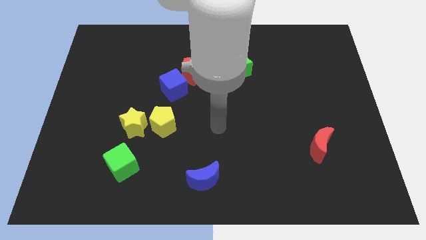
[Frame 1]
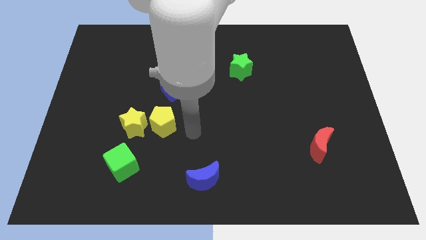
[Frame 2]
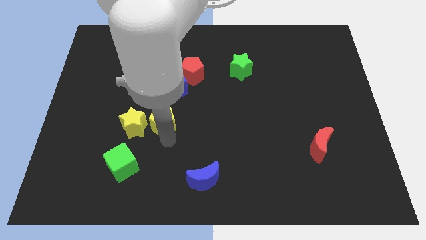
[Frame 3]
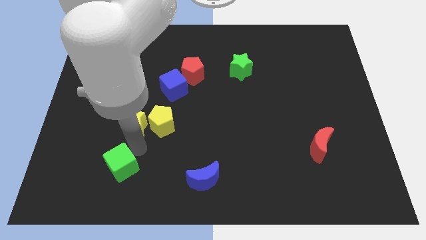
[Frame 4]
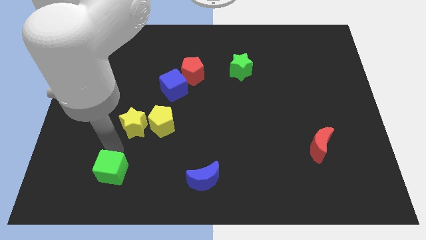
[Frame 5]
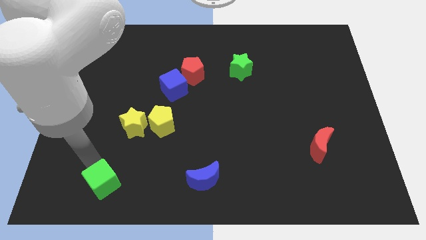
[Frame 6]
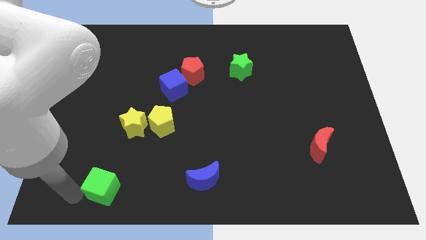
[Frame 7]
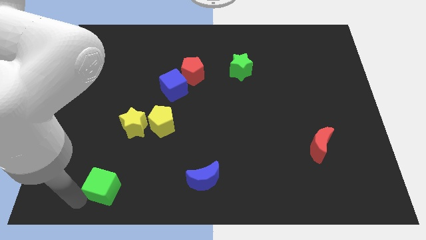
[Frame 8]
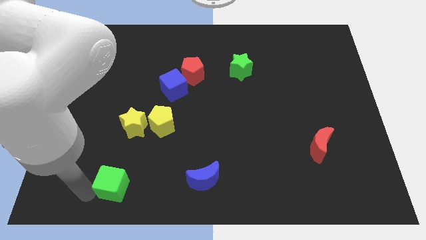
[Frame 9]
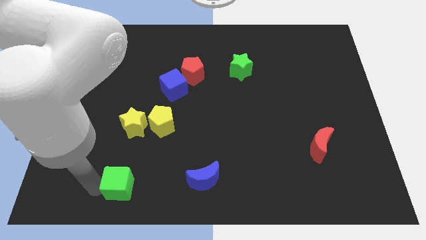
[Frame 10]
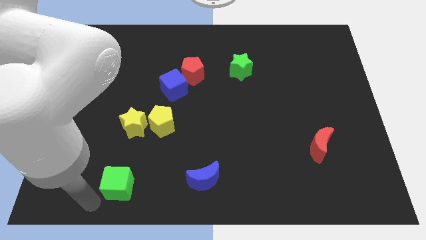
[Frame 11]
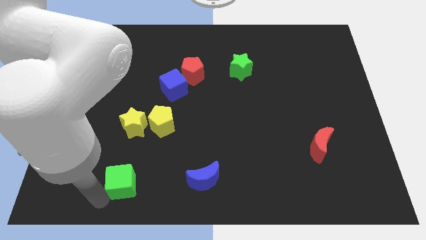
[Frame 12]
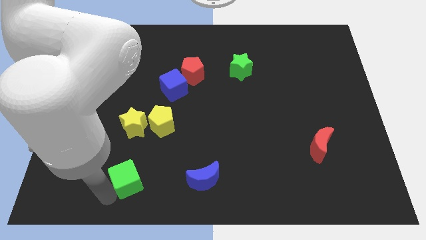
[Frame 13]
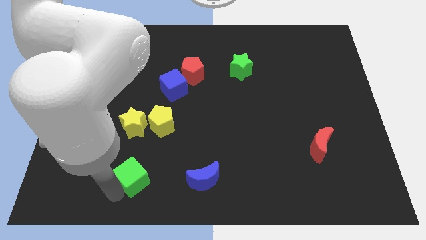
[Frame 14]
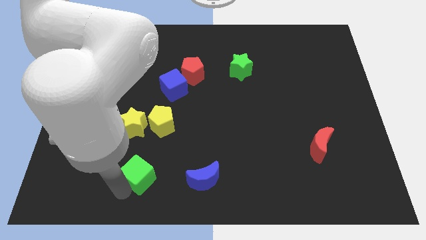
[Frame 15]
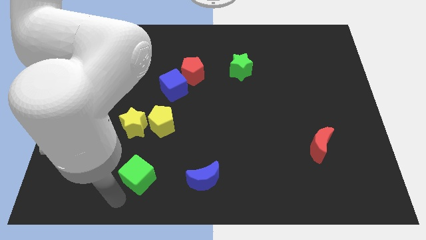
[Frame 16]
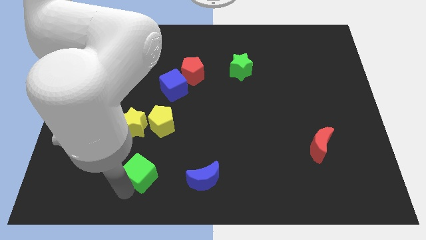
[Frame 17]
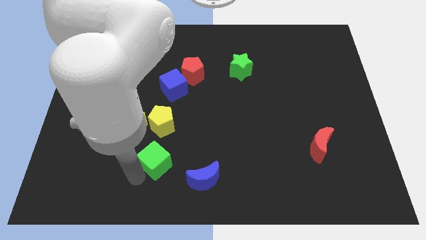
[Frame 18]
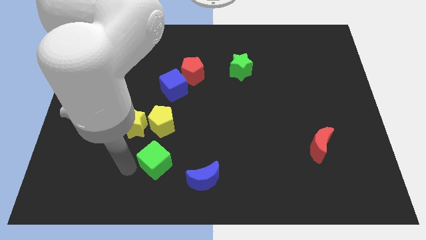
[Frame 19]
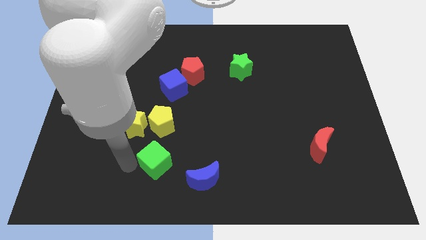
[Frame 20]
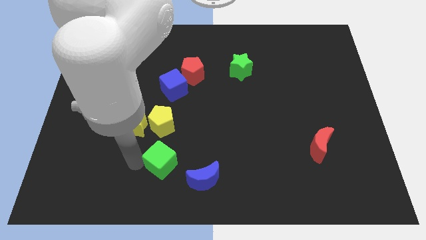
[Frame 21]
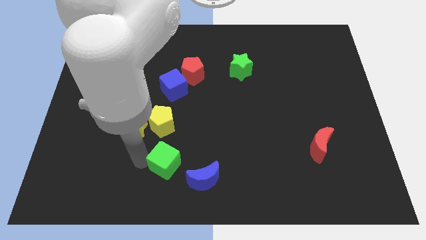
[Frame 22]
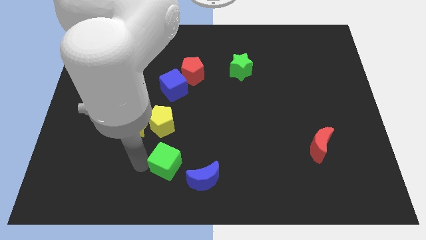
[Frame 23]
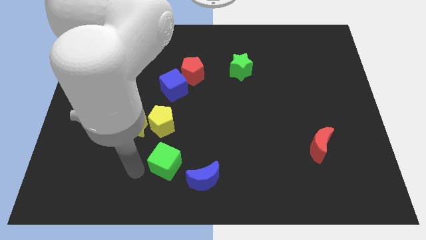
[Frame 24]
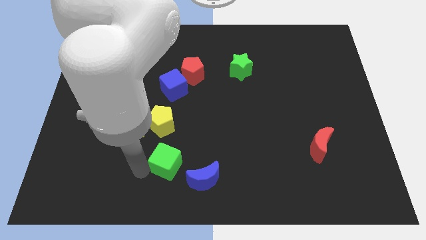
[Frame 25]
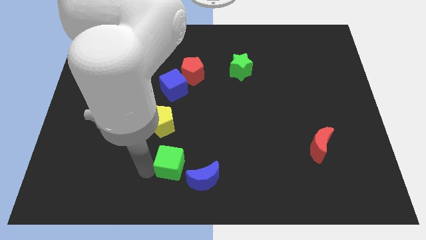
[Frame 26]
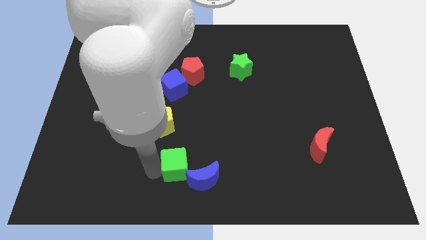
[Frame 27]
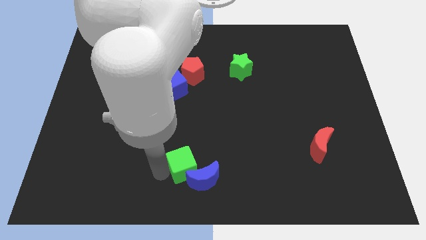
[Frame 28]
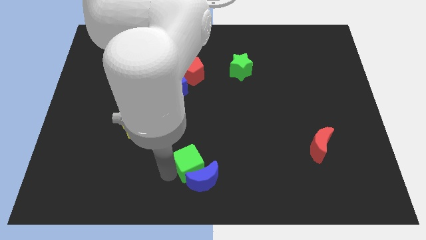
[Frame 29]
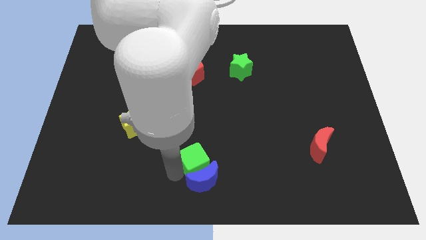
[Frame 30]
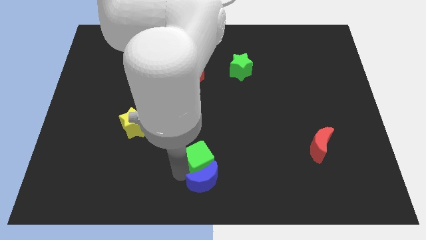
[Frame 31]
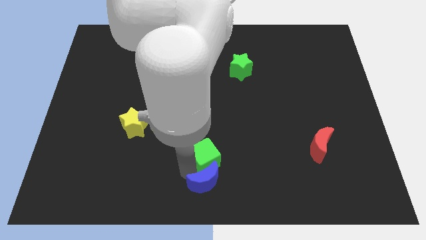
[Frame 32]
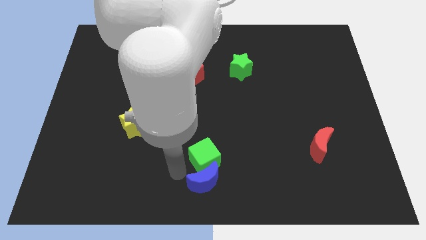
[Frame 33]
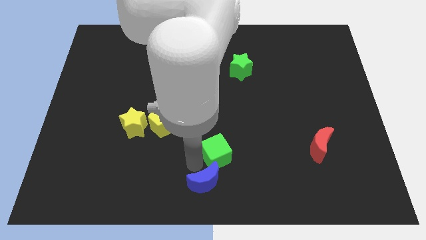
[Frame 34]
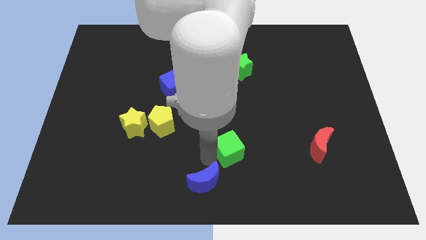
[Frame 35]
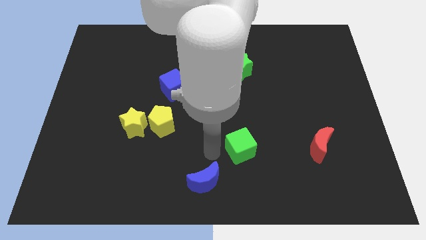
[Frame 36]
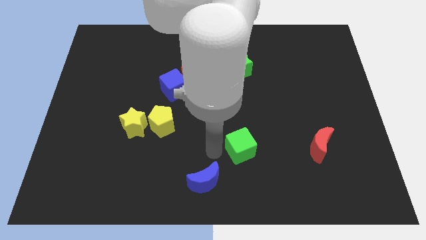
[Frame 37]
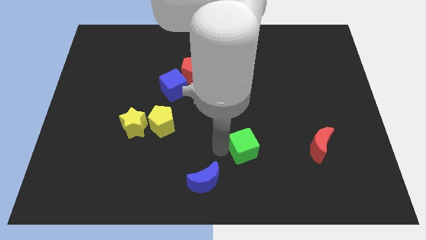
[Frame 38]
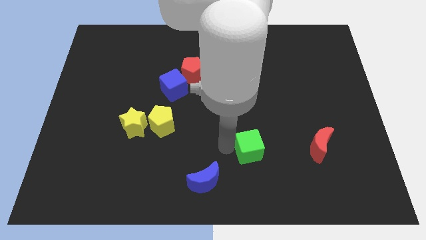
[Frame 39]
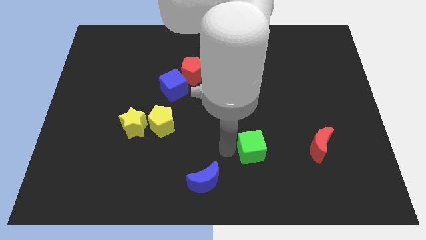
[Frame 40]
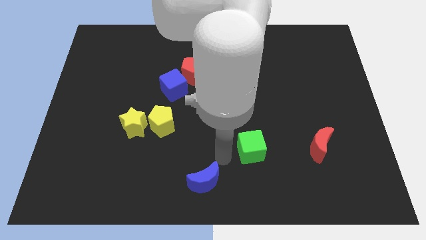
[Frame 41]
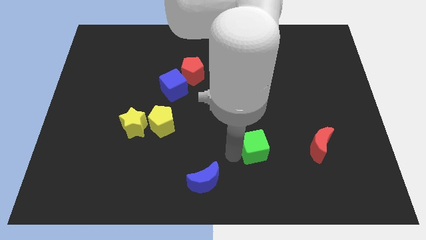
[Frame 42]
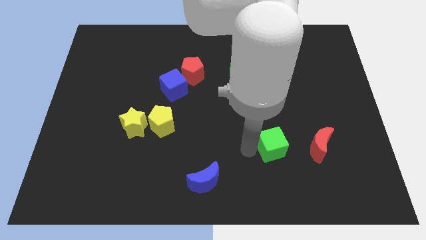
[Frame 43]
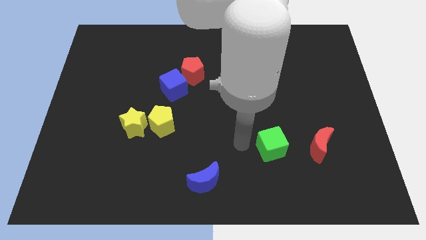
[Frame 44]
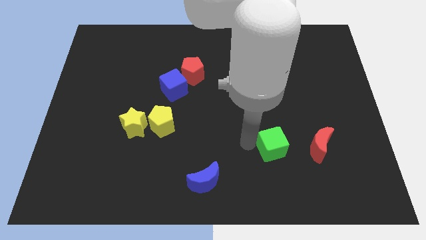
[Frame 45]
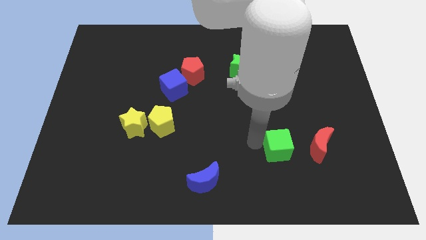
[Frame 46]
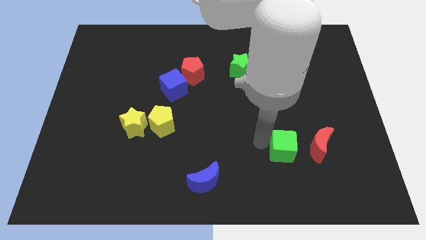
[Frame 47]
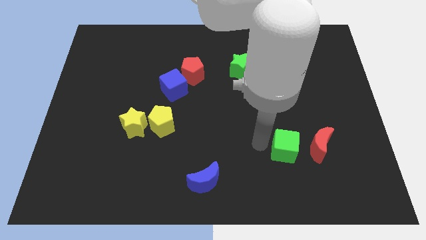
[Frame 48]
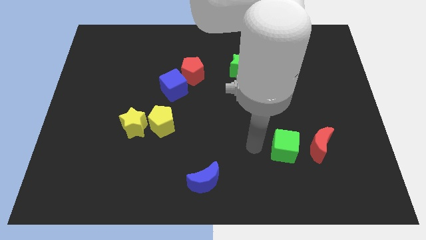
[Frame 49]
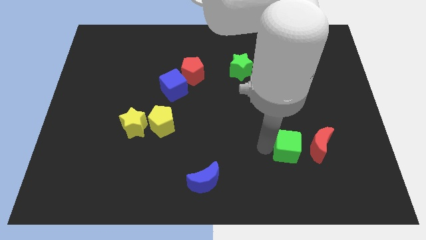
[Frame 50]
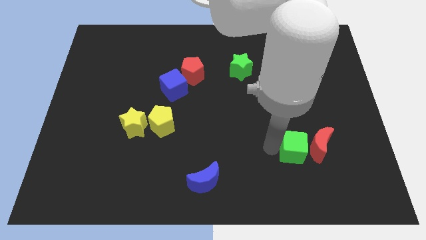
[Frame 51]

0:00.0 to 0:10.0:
slide the green cube towards the red moon
